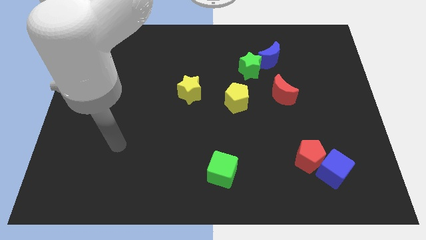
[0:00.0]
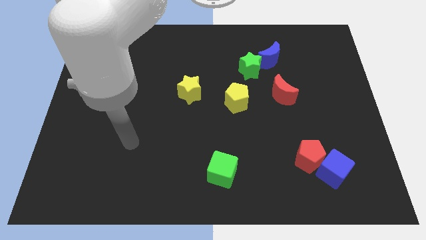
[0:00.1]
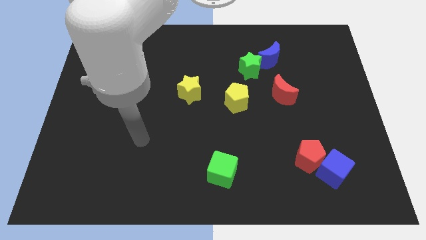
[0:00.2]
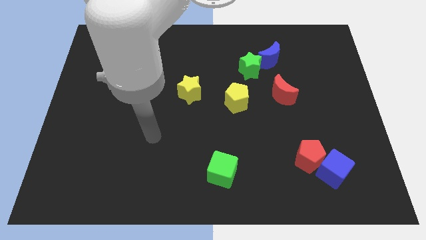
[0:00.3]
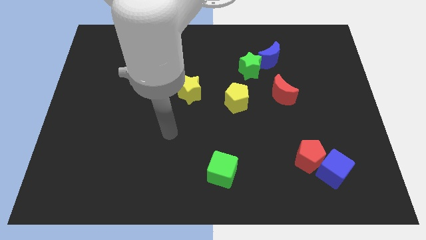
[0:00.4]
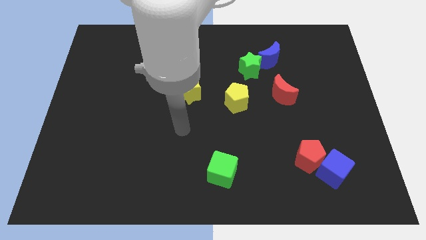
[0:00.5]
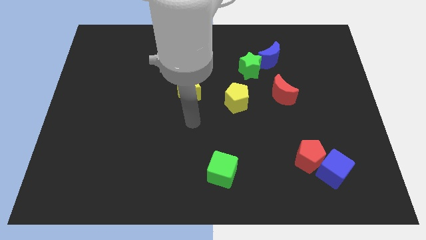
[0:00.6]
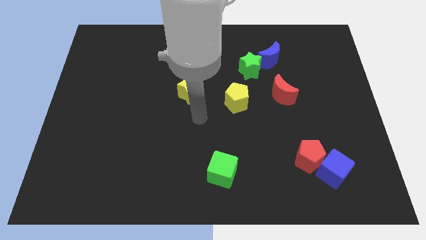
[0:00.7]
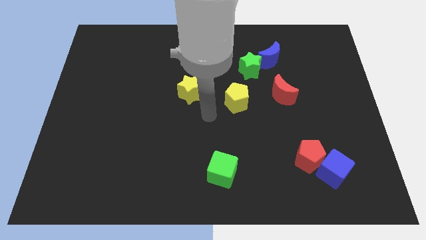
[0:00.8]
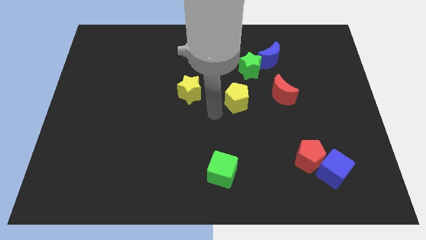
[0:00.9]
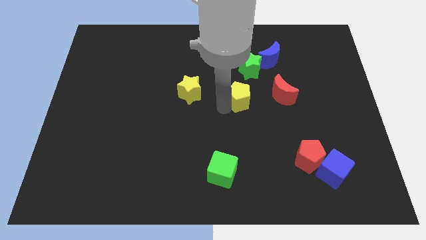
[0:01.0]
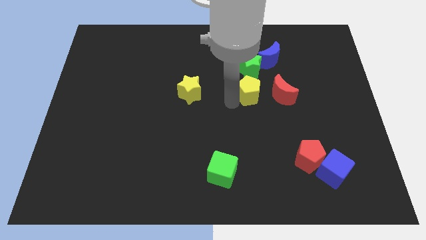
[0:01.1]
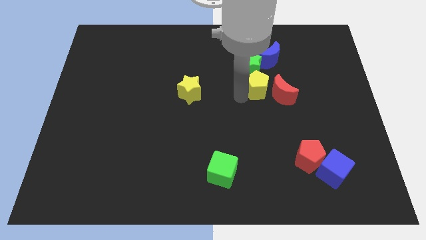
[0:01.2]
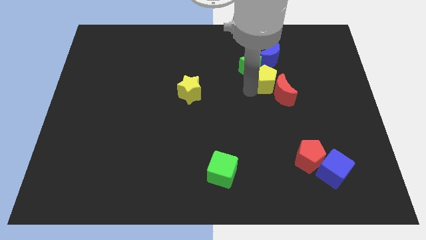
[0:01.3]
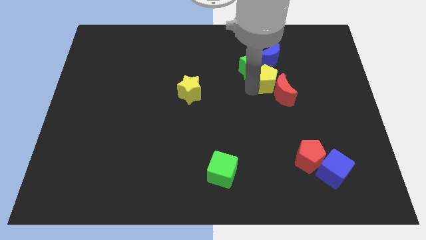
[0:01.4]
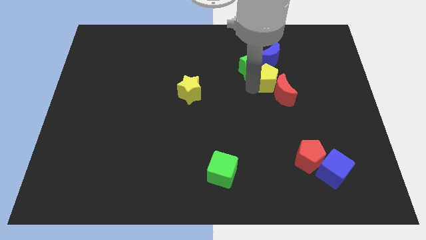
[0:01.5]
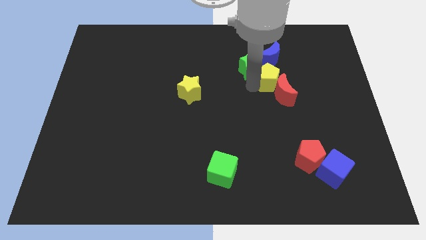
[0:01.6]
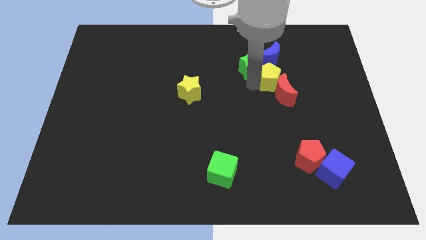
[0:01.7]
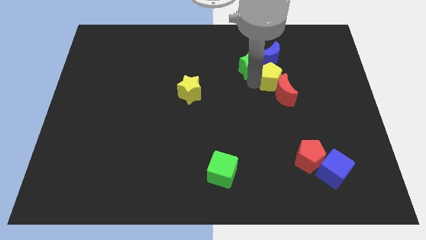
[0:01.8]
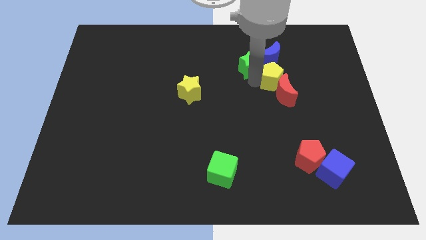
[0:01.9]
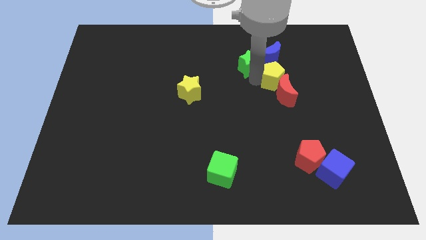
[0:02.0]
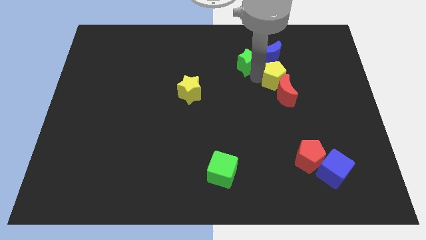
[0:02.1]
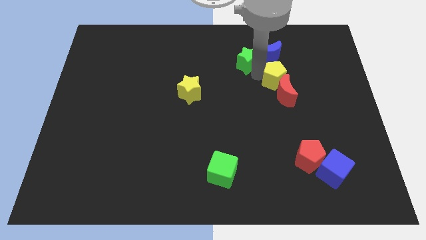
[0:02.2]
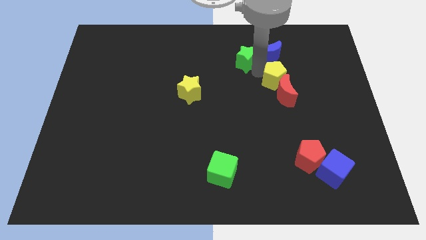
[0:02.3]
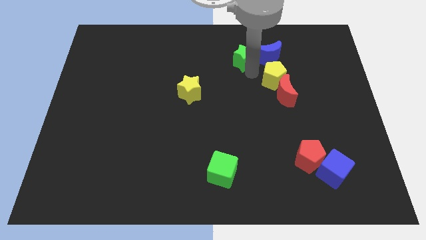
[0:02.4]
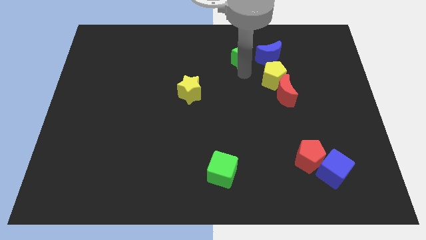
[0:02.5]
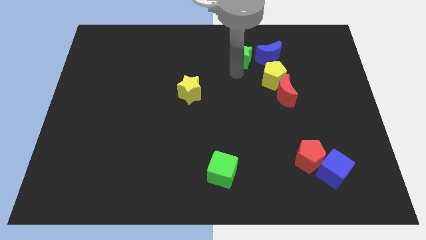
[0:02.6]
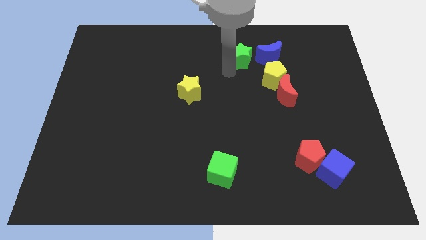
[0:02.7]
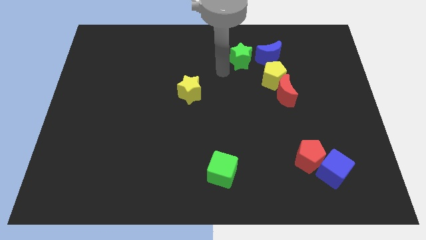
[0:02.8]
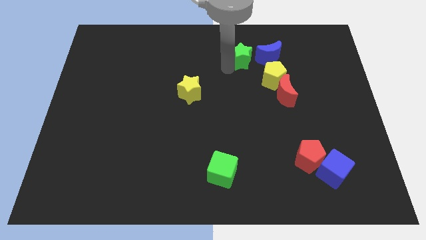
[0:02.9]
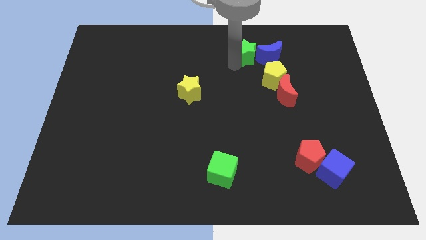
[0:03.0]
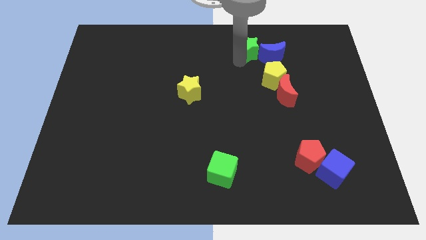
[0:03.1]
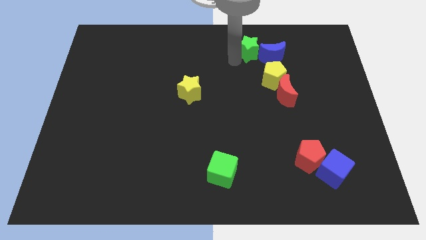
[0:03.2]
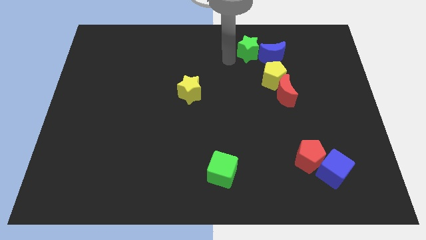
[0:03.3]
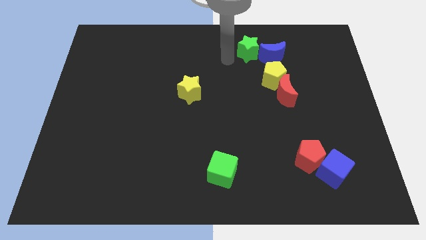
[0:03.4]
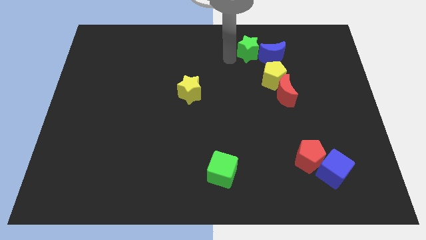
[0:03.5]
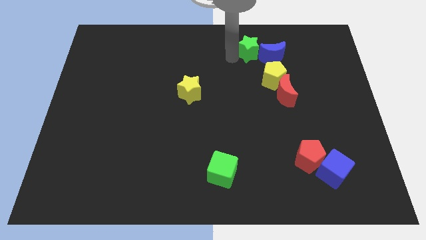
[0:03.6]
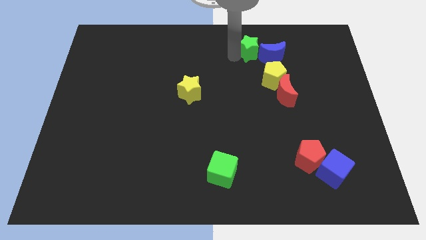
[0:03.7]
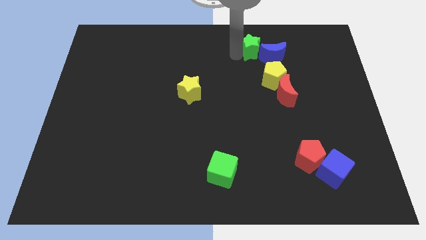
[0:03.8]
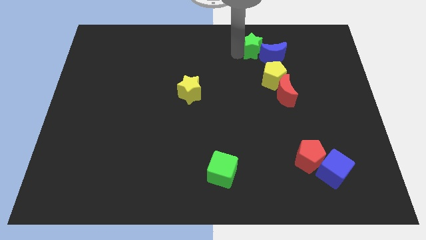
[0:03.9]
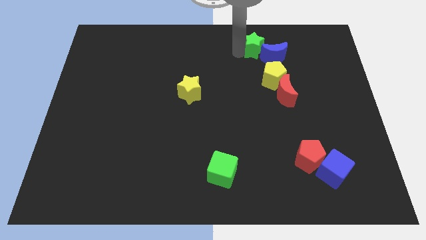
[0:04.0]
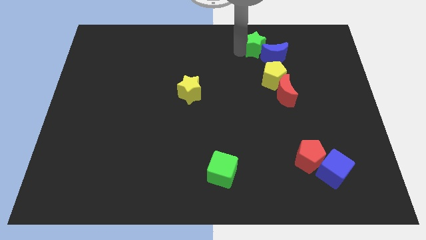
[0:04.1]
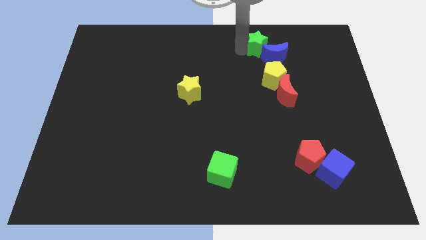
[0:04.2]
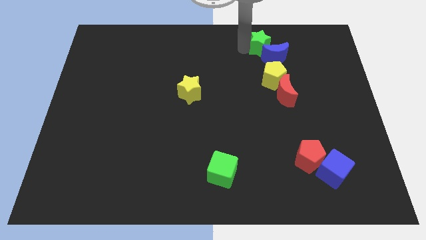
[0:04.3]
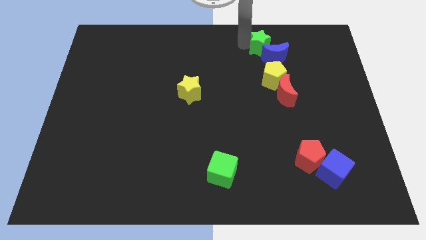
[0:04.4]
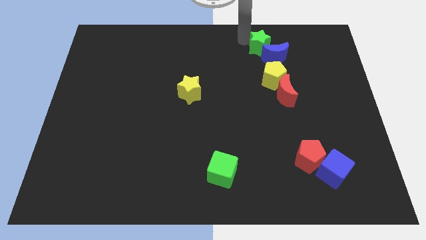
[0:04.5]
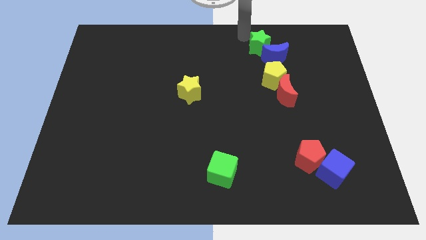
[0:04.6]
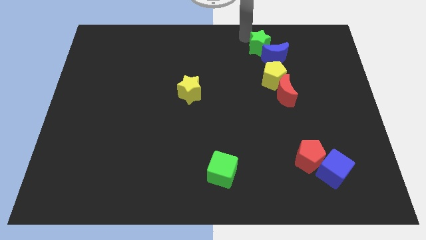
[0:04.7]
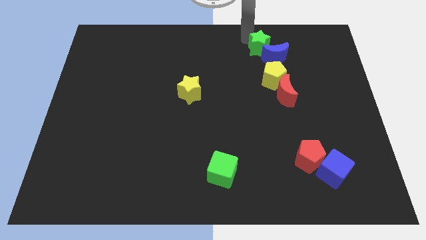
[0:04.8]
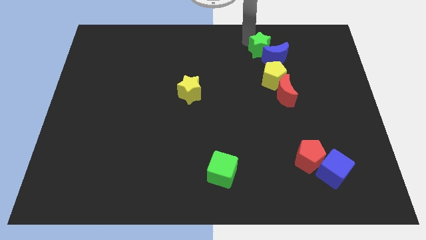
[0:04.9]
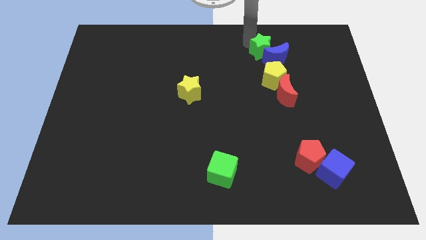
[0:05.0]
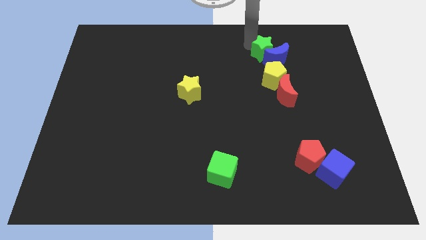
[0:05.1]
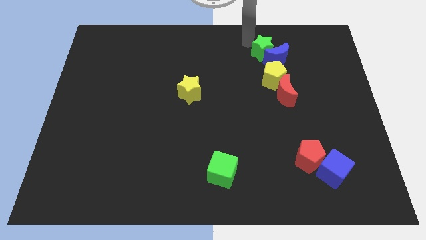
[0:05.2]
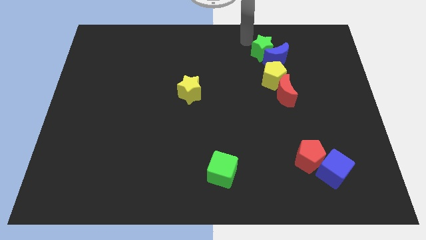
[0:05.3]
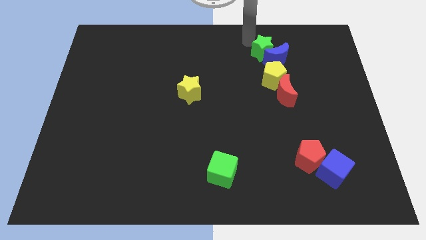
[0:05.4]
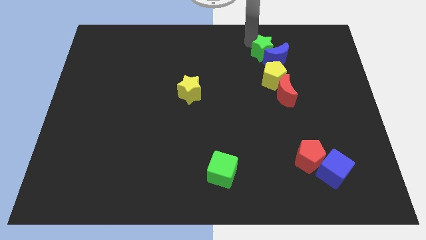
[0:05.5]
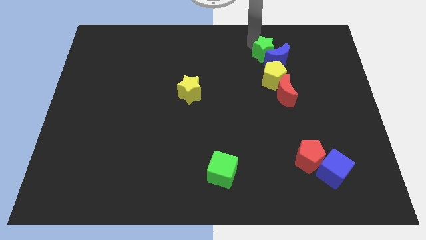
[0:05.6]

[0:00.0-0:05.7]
move the green star above the red moon

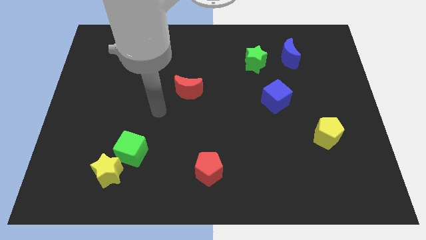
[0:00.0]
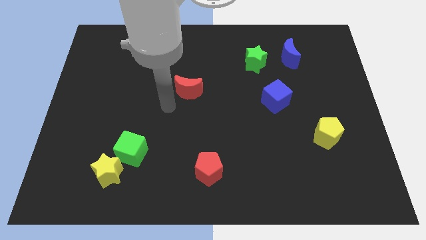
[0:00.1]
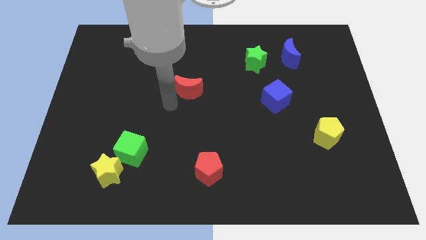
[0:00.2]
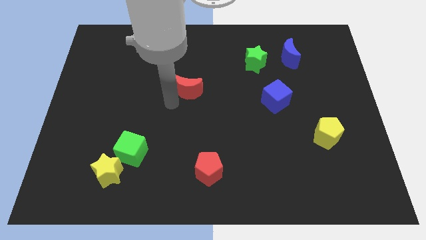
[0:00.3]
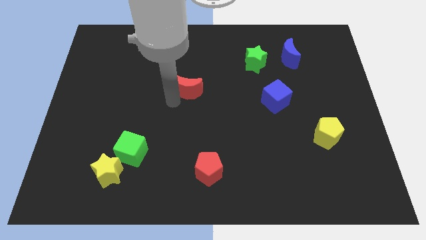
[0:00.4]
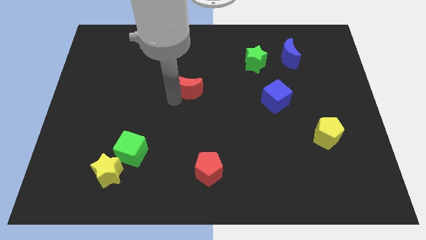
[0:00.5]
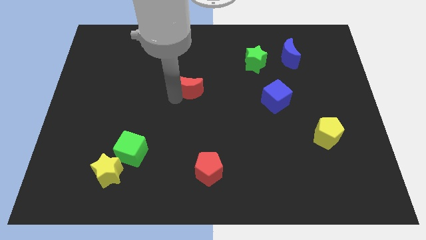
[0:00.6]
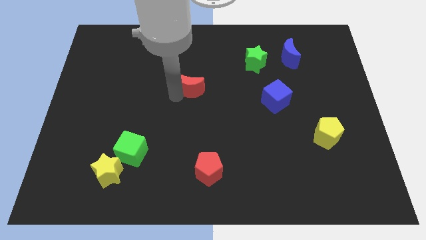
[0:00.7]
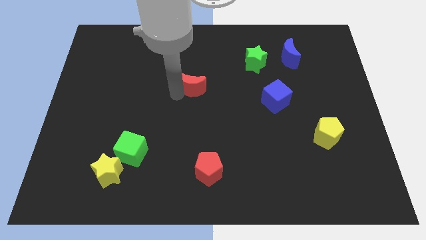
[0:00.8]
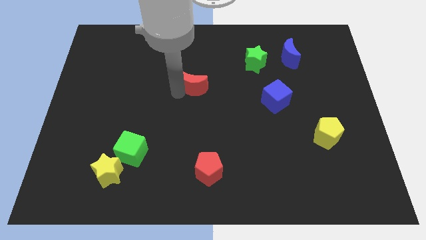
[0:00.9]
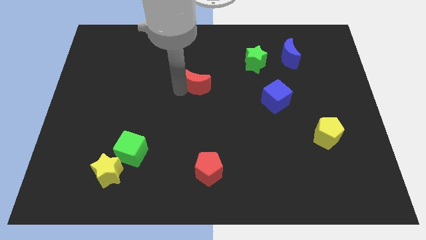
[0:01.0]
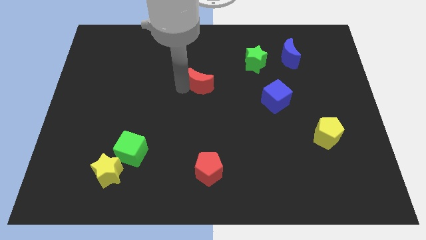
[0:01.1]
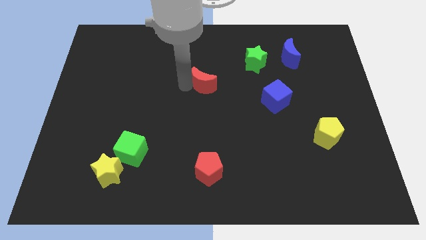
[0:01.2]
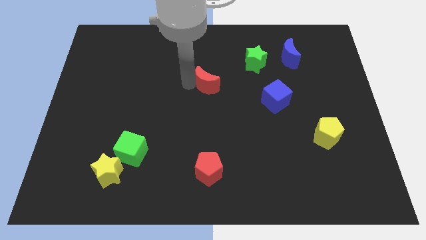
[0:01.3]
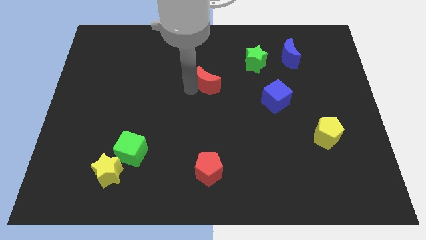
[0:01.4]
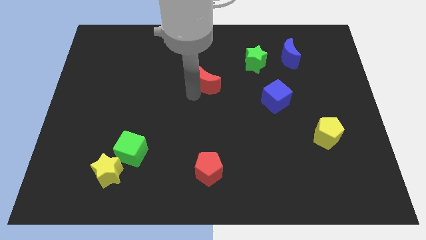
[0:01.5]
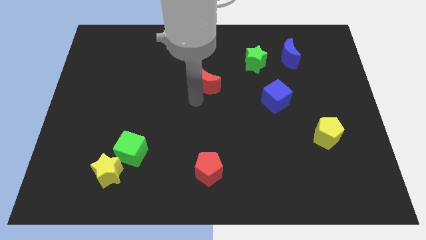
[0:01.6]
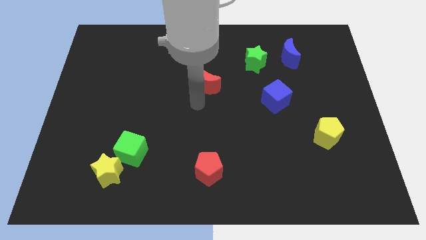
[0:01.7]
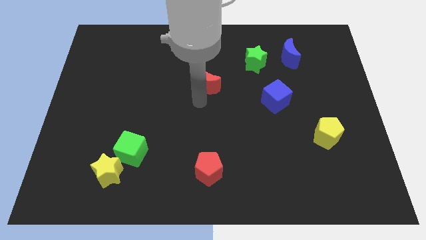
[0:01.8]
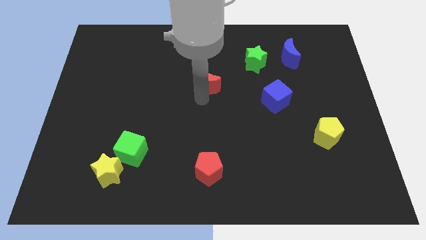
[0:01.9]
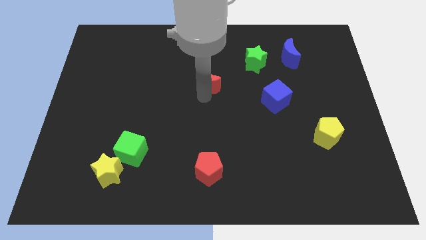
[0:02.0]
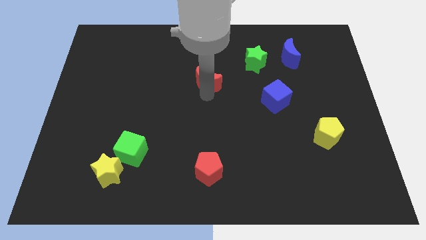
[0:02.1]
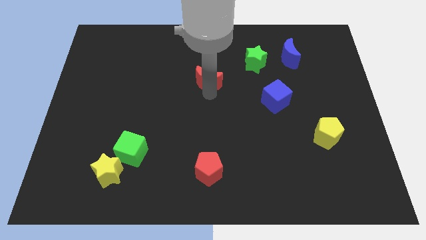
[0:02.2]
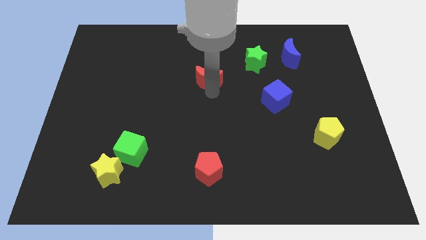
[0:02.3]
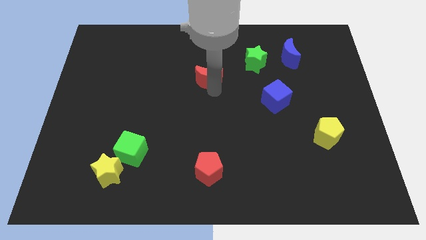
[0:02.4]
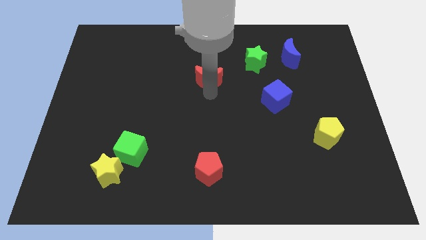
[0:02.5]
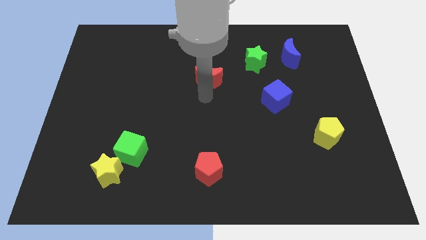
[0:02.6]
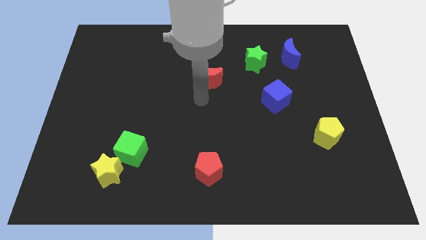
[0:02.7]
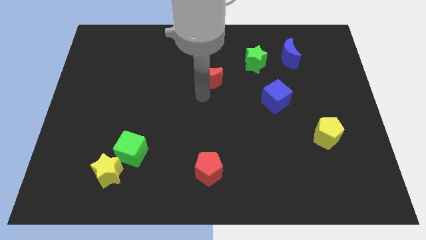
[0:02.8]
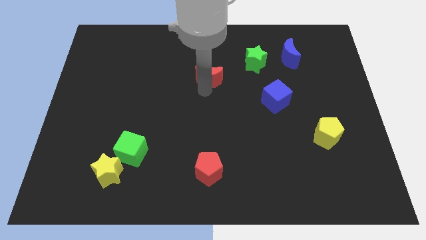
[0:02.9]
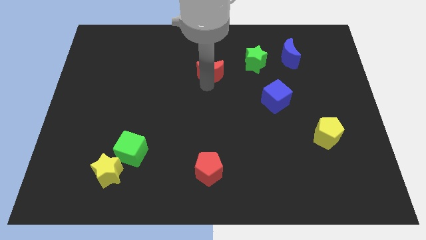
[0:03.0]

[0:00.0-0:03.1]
slide the red moon just left of the green star
